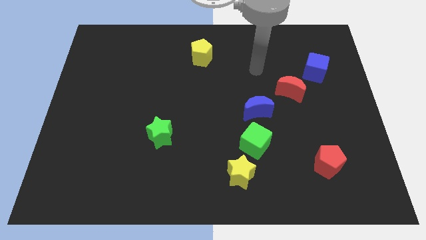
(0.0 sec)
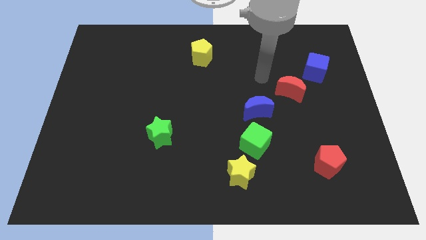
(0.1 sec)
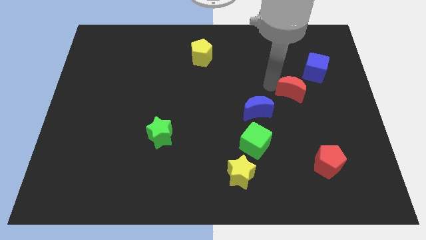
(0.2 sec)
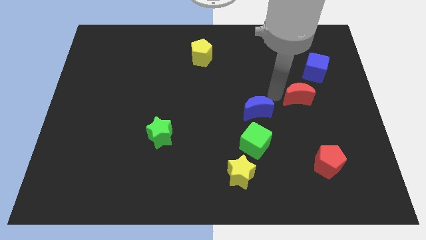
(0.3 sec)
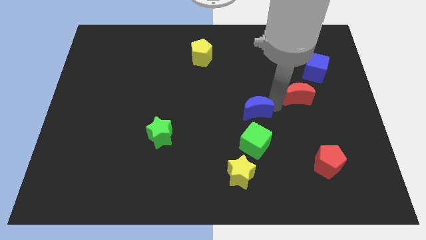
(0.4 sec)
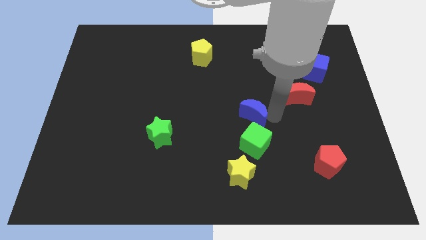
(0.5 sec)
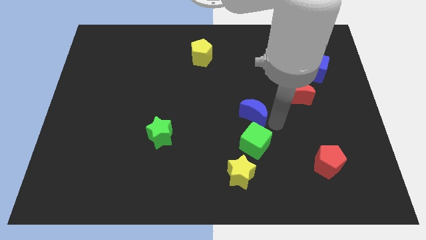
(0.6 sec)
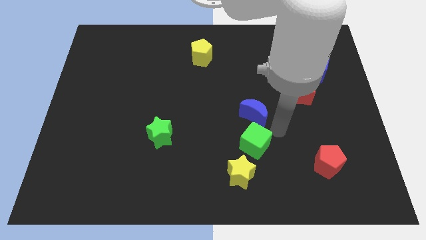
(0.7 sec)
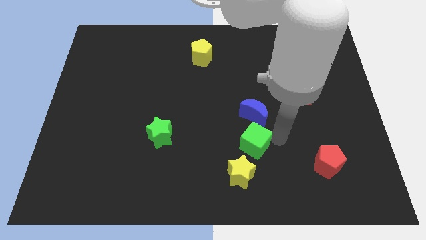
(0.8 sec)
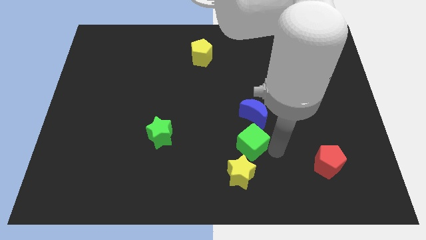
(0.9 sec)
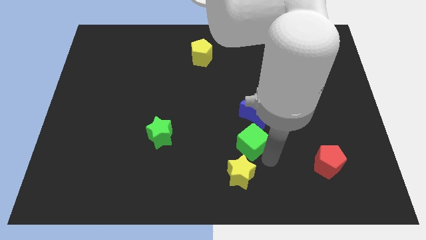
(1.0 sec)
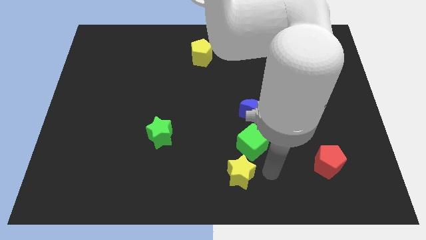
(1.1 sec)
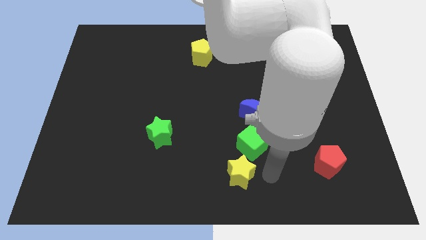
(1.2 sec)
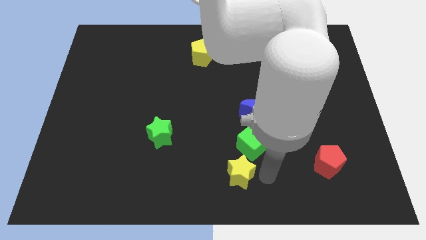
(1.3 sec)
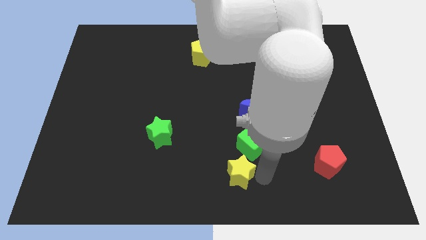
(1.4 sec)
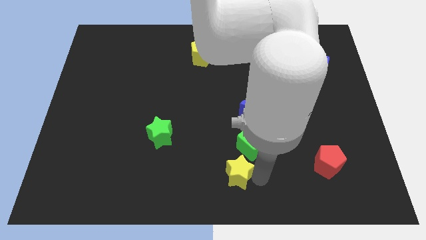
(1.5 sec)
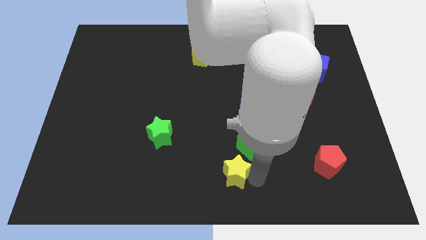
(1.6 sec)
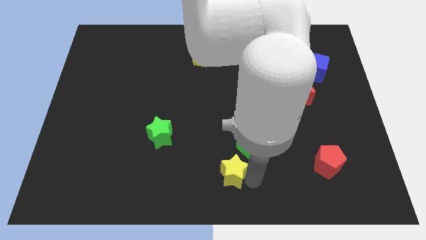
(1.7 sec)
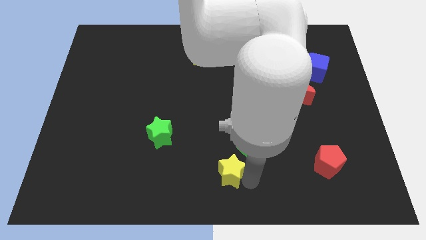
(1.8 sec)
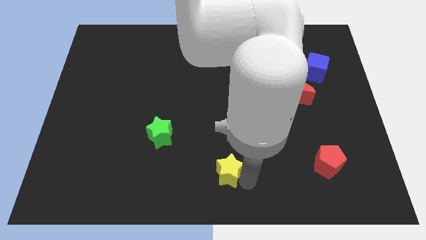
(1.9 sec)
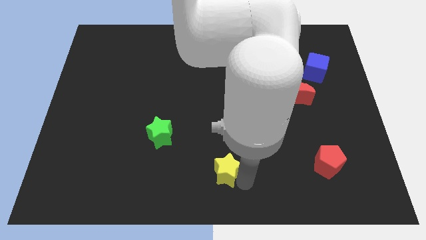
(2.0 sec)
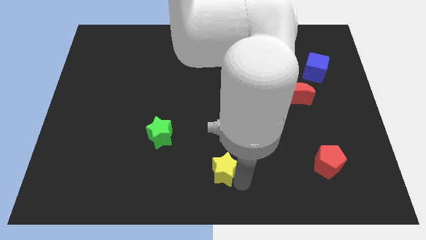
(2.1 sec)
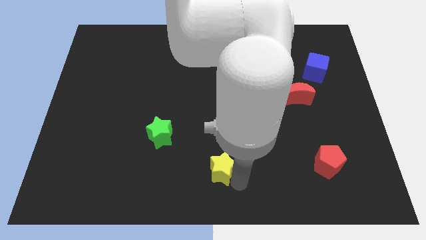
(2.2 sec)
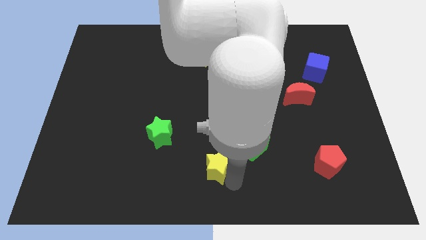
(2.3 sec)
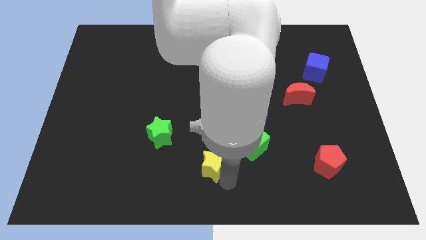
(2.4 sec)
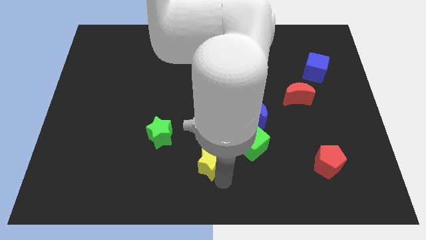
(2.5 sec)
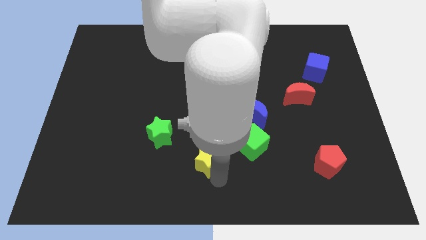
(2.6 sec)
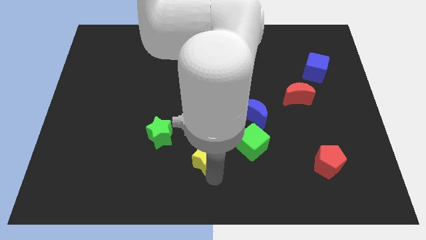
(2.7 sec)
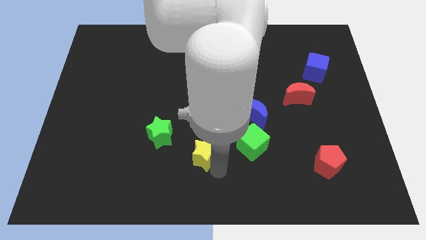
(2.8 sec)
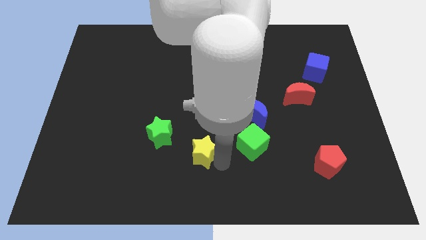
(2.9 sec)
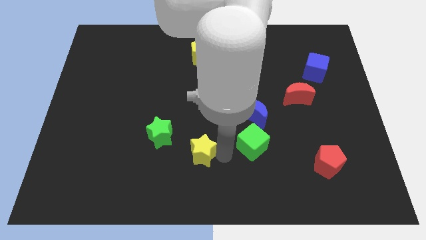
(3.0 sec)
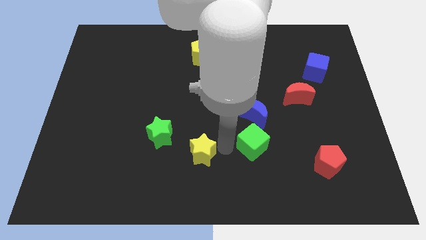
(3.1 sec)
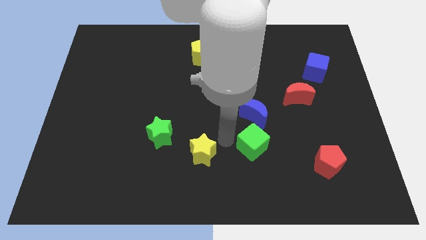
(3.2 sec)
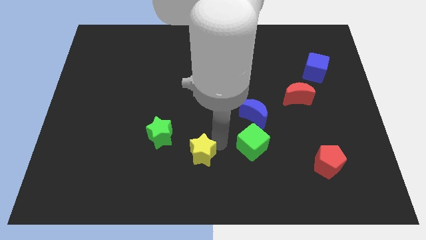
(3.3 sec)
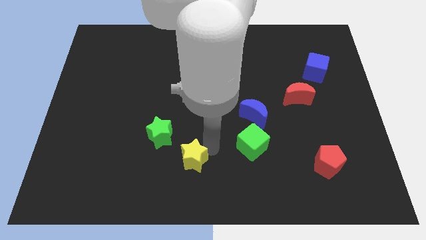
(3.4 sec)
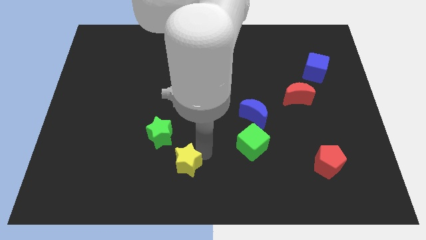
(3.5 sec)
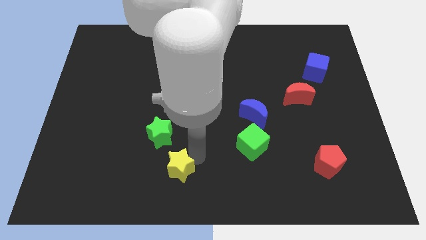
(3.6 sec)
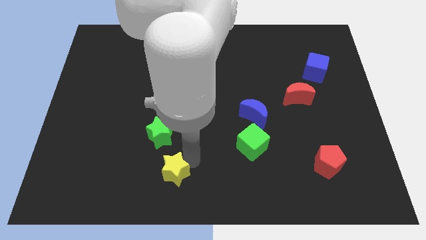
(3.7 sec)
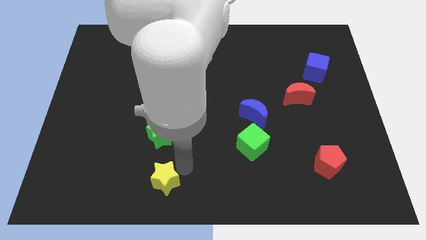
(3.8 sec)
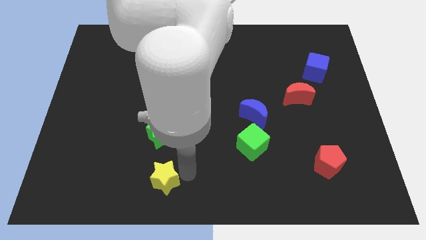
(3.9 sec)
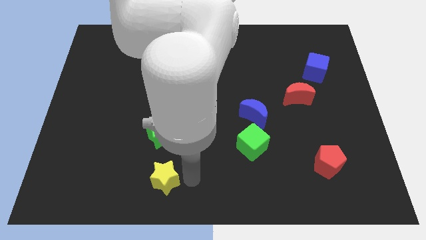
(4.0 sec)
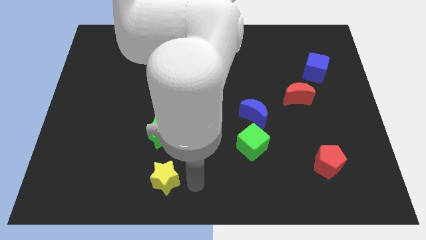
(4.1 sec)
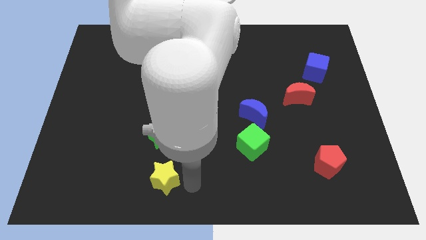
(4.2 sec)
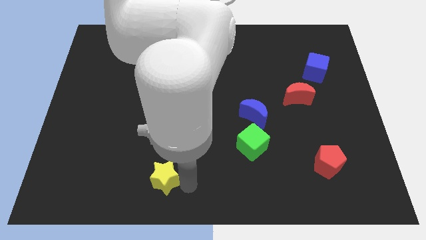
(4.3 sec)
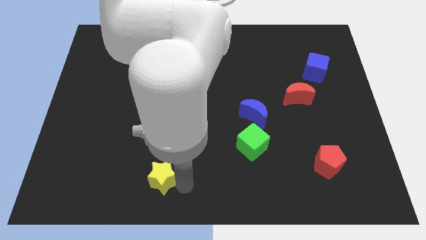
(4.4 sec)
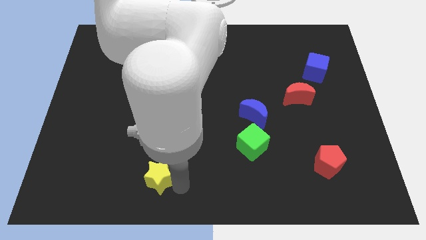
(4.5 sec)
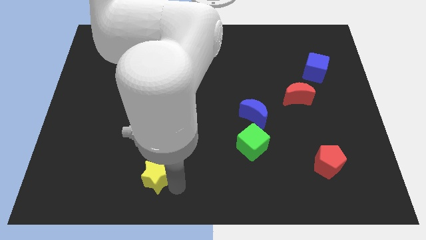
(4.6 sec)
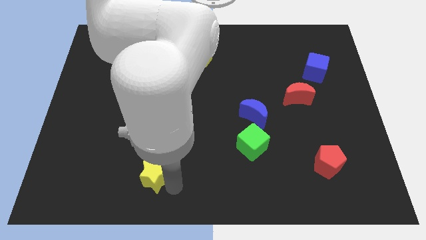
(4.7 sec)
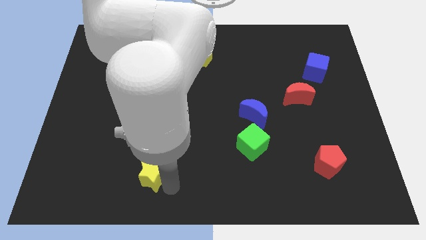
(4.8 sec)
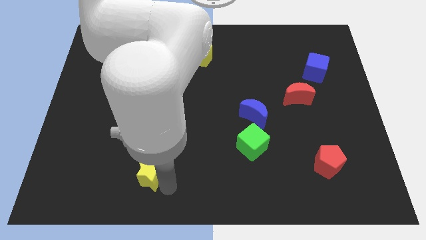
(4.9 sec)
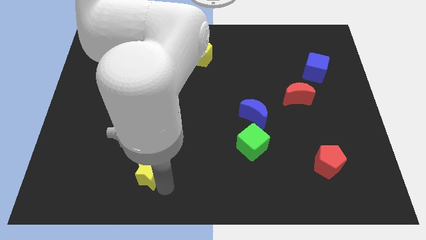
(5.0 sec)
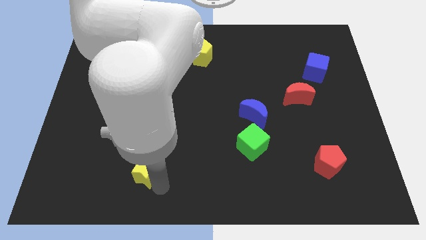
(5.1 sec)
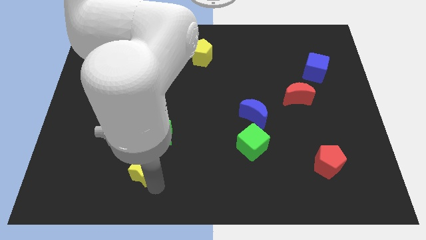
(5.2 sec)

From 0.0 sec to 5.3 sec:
push the yellow star to the left

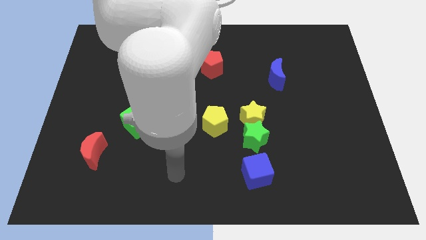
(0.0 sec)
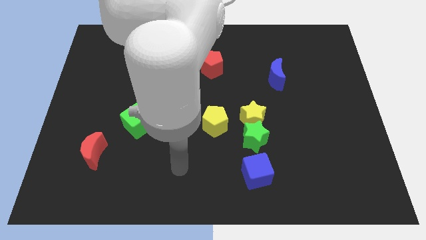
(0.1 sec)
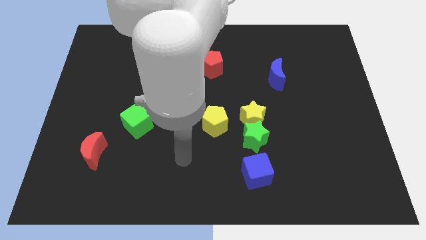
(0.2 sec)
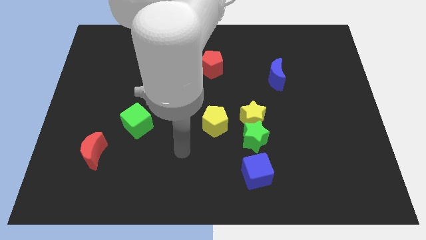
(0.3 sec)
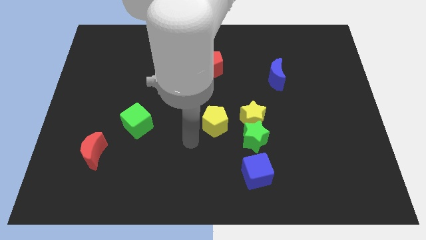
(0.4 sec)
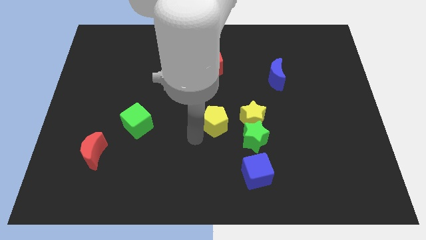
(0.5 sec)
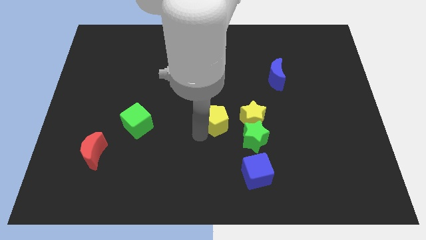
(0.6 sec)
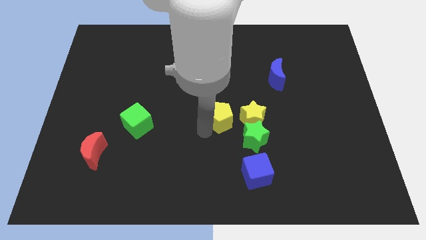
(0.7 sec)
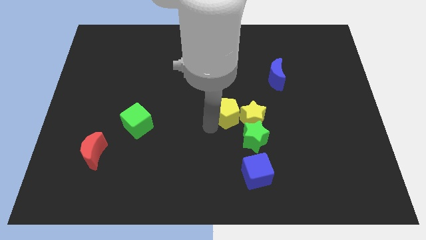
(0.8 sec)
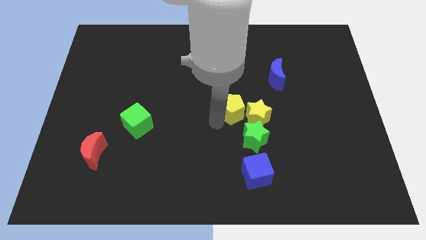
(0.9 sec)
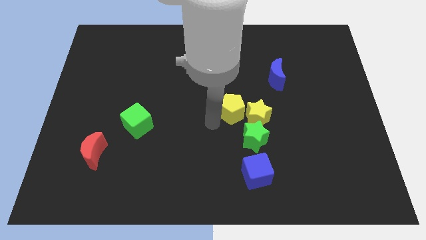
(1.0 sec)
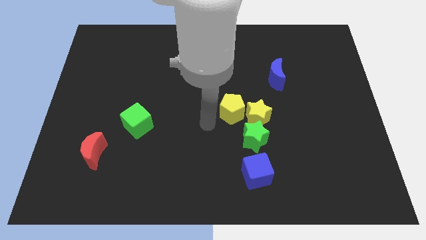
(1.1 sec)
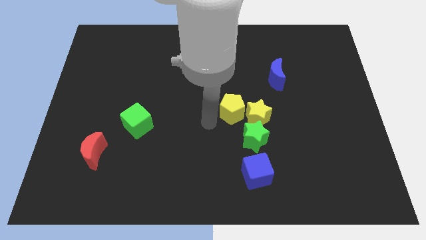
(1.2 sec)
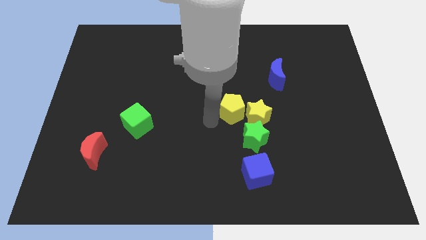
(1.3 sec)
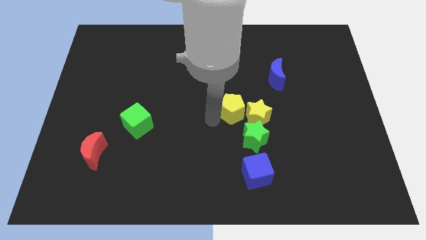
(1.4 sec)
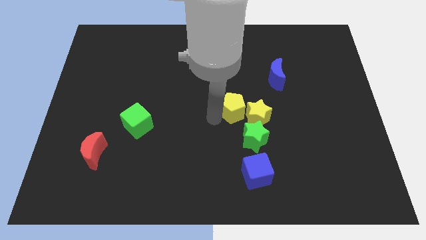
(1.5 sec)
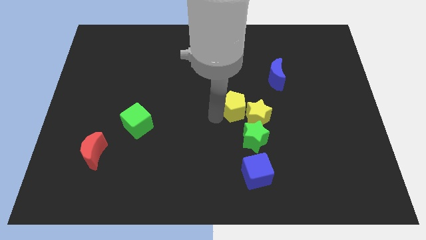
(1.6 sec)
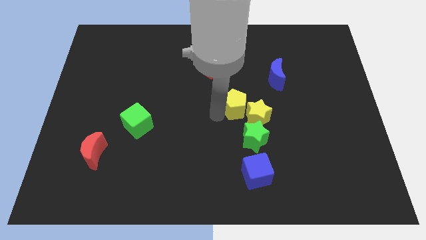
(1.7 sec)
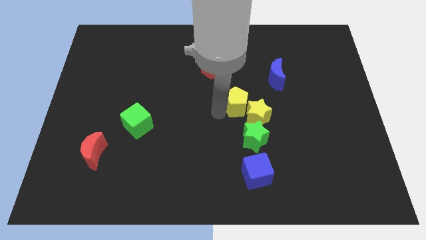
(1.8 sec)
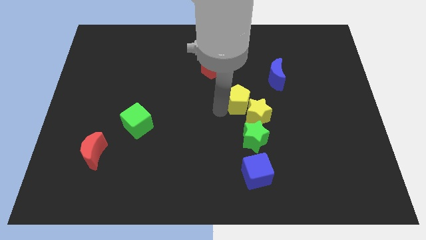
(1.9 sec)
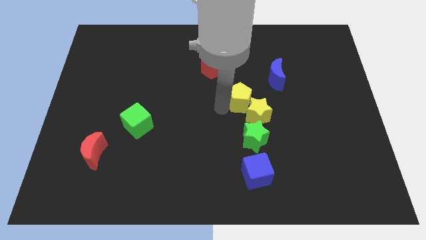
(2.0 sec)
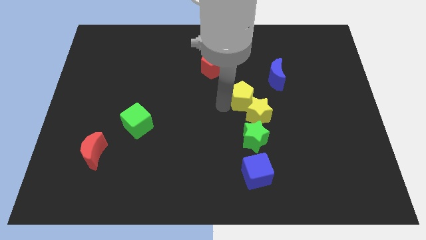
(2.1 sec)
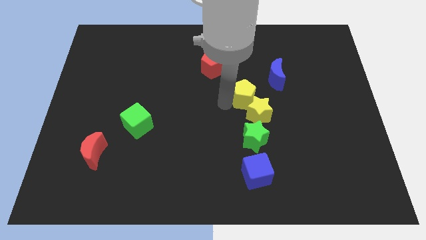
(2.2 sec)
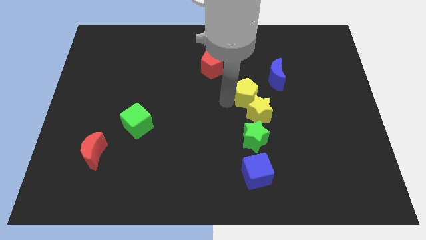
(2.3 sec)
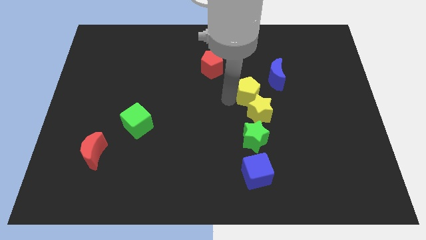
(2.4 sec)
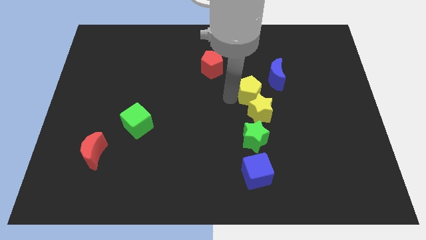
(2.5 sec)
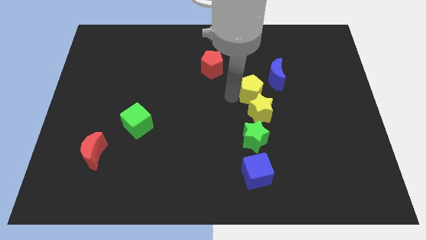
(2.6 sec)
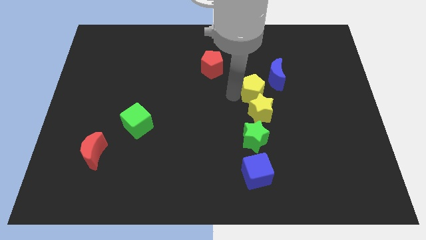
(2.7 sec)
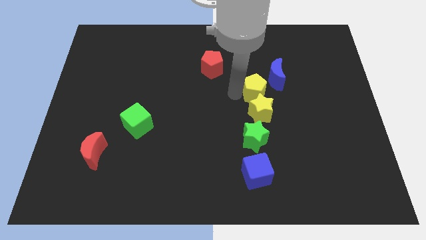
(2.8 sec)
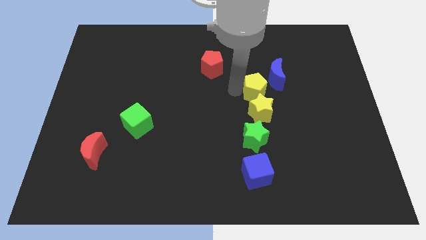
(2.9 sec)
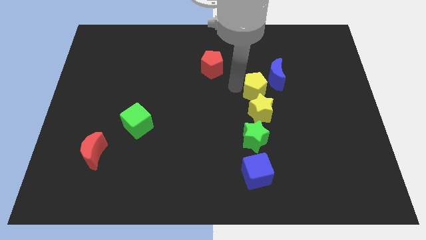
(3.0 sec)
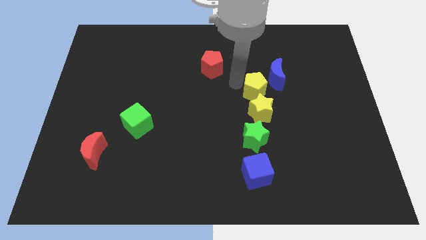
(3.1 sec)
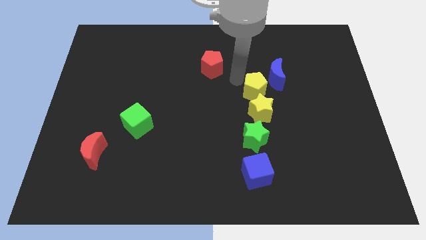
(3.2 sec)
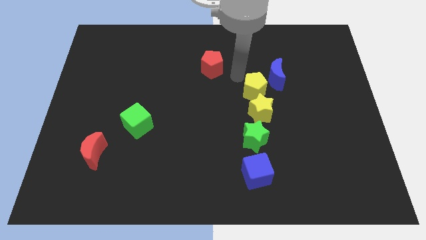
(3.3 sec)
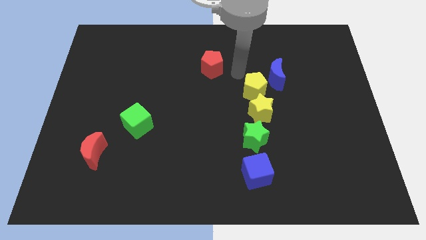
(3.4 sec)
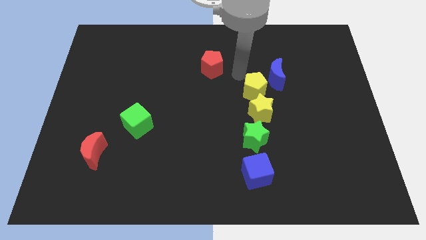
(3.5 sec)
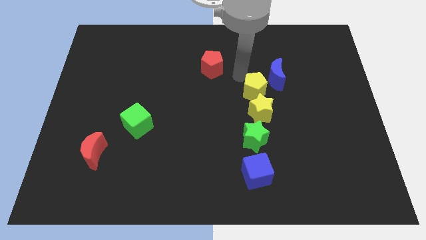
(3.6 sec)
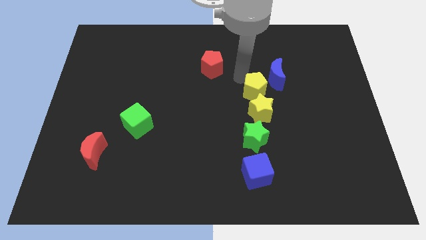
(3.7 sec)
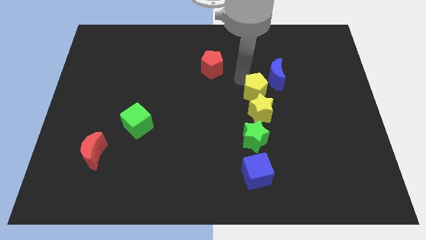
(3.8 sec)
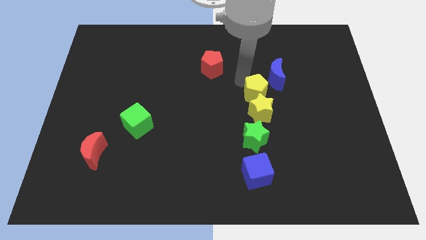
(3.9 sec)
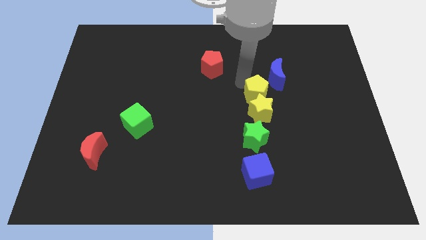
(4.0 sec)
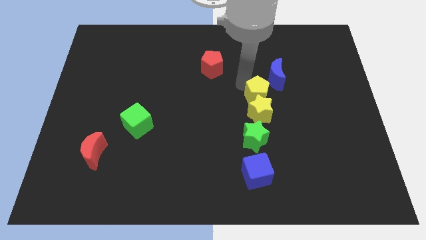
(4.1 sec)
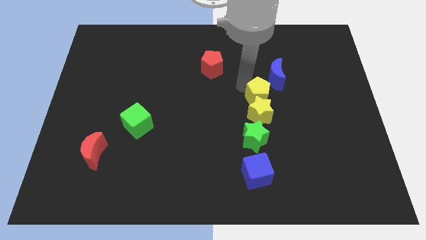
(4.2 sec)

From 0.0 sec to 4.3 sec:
slightly move the yellow pentagon to the right
